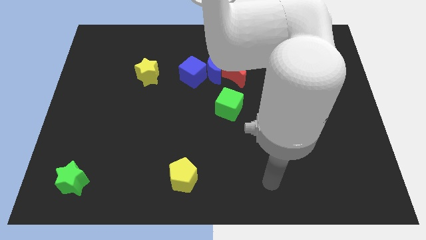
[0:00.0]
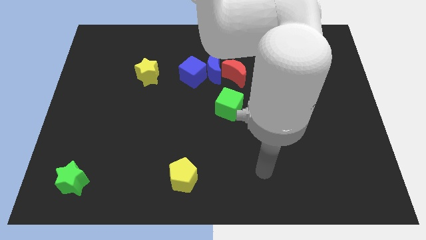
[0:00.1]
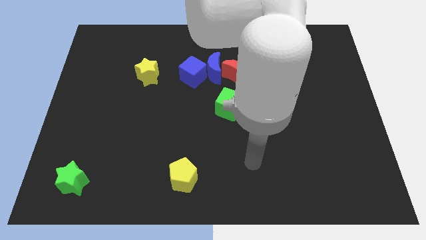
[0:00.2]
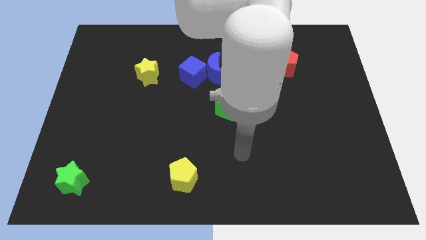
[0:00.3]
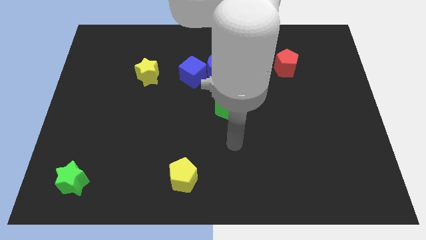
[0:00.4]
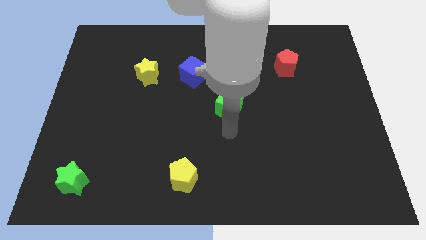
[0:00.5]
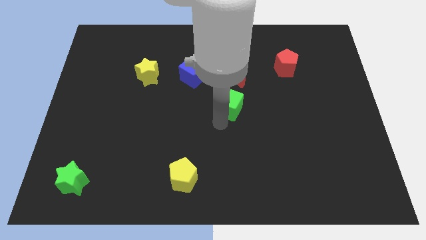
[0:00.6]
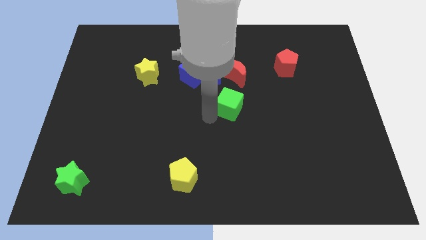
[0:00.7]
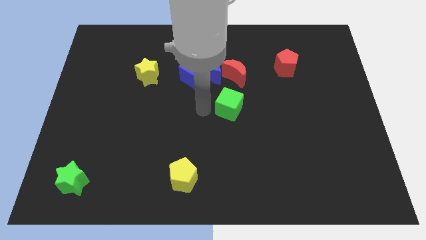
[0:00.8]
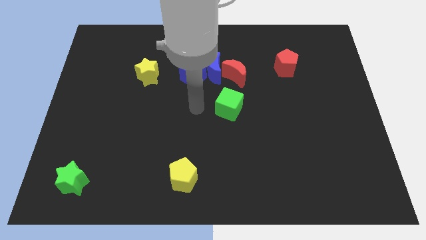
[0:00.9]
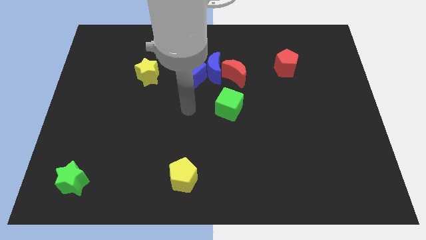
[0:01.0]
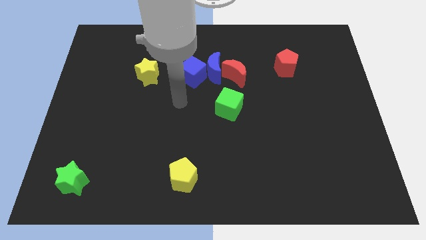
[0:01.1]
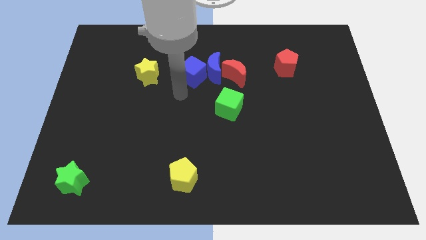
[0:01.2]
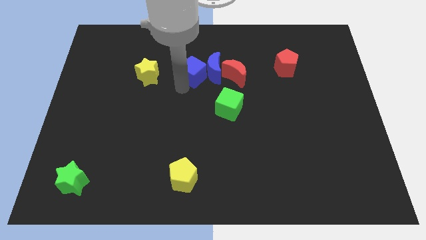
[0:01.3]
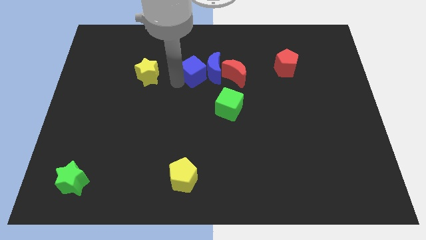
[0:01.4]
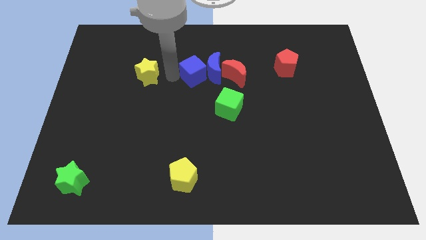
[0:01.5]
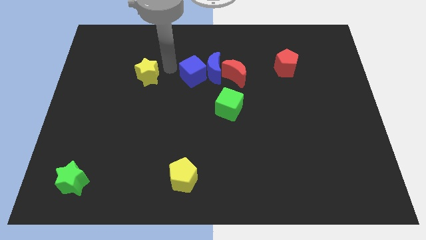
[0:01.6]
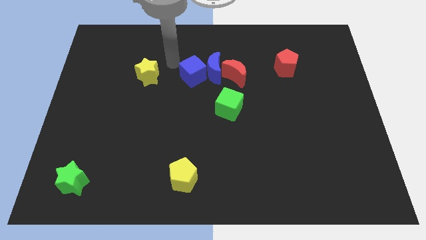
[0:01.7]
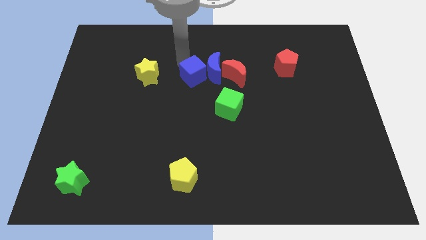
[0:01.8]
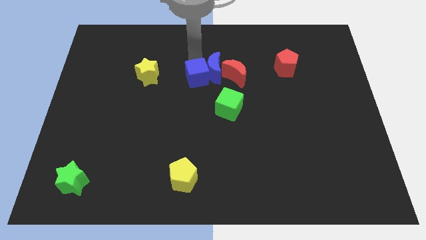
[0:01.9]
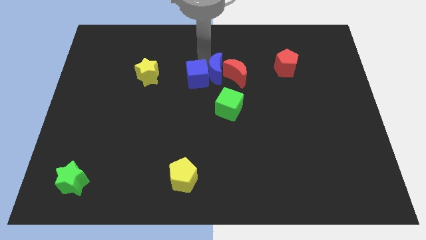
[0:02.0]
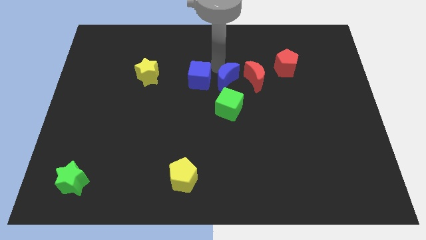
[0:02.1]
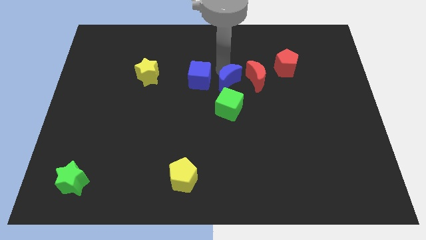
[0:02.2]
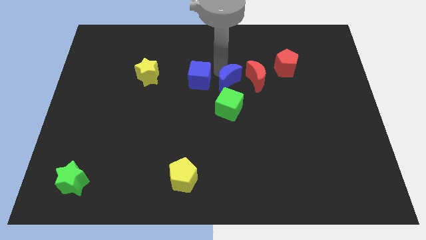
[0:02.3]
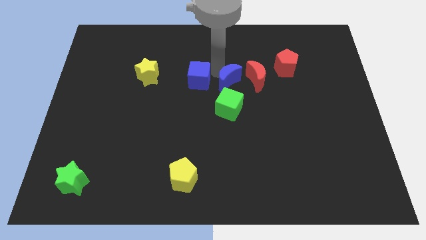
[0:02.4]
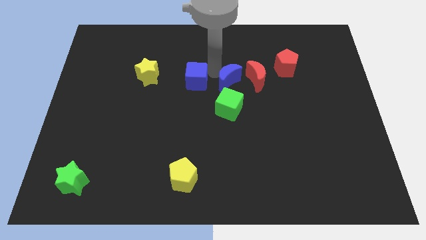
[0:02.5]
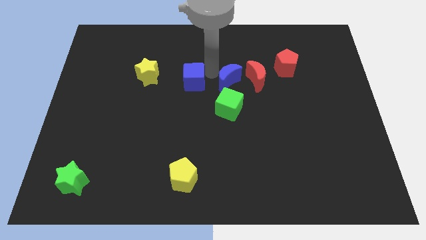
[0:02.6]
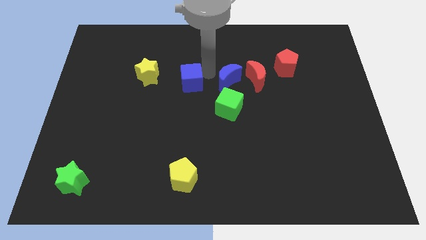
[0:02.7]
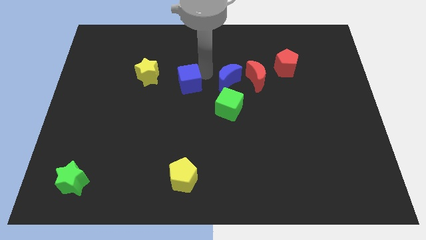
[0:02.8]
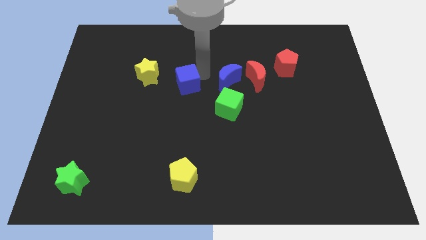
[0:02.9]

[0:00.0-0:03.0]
separate the blue cube from the blue moon

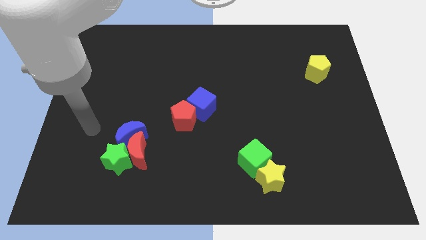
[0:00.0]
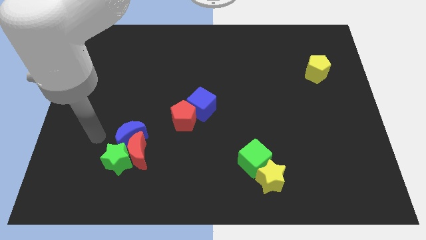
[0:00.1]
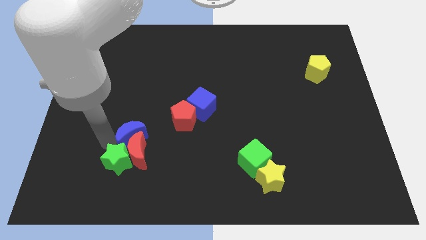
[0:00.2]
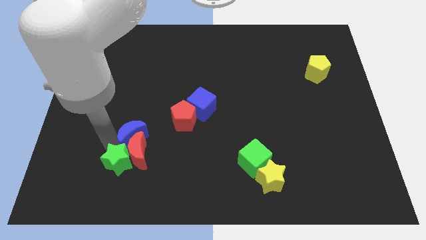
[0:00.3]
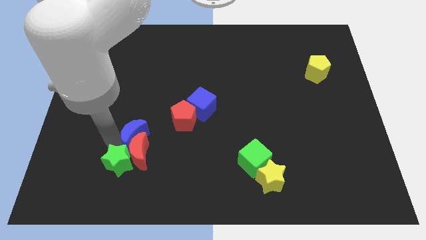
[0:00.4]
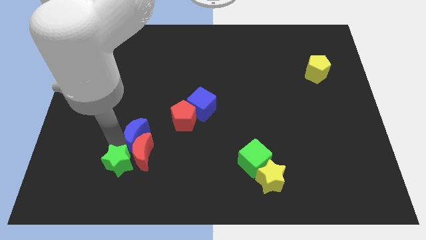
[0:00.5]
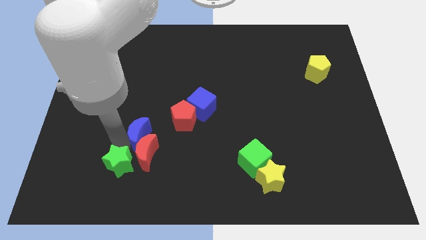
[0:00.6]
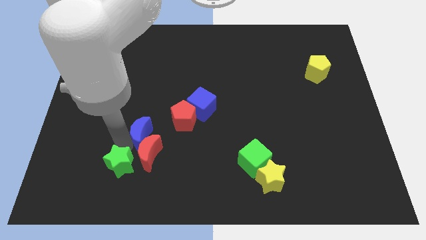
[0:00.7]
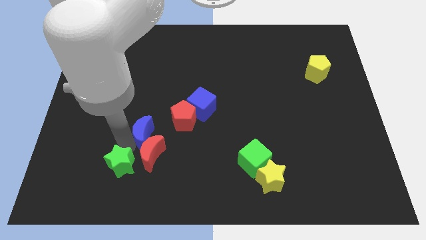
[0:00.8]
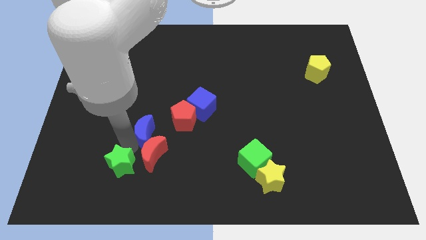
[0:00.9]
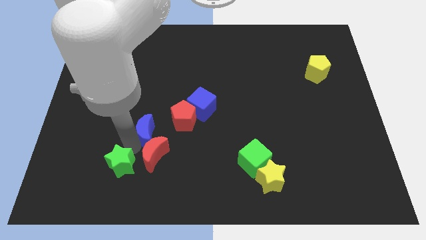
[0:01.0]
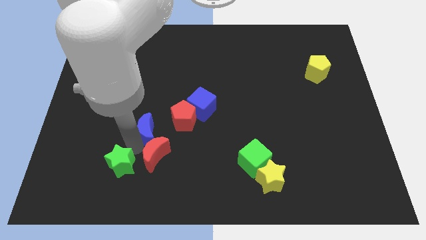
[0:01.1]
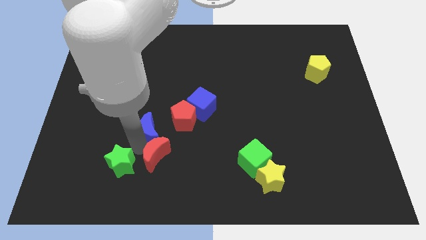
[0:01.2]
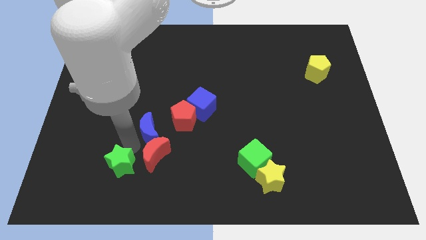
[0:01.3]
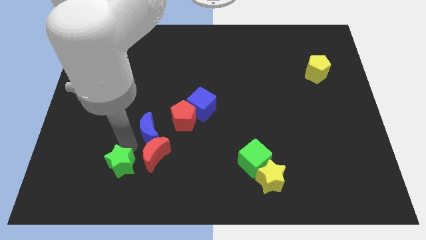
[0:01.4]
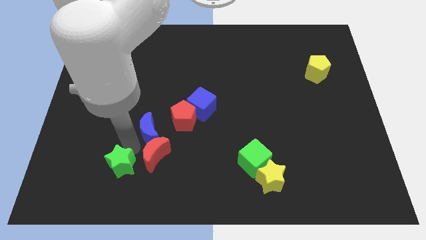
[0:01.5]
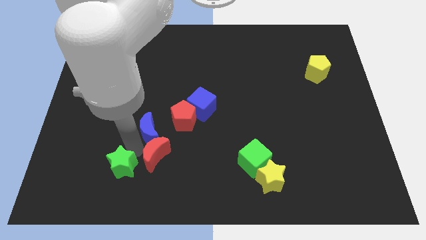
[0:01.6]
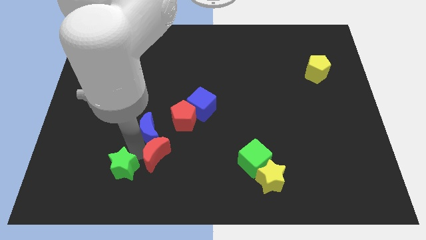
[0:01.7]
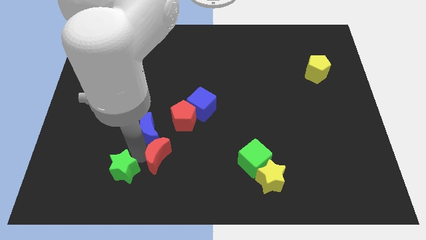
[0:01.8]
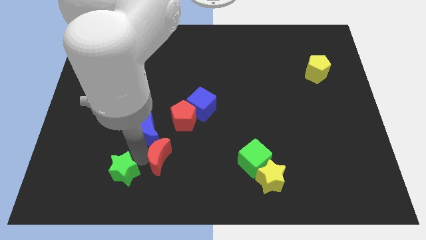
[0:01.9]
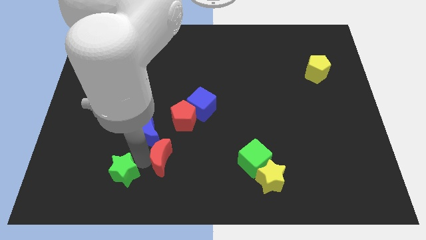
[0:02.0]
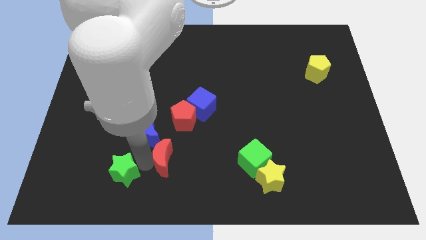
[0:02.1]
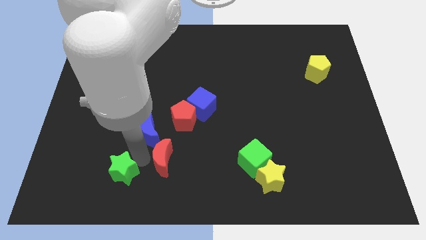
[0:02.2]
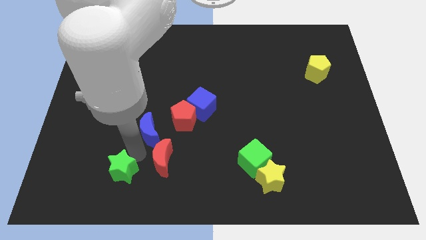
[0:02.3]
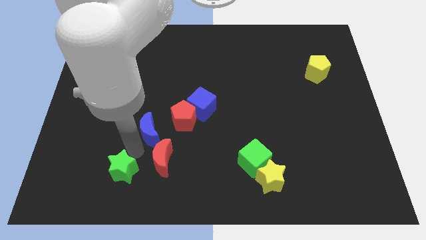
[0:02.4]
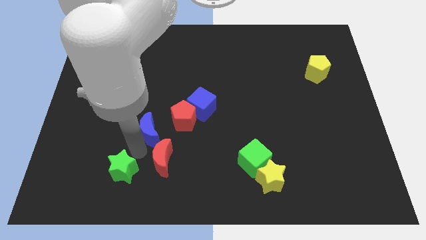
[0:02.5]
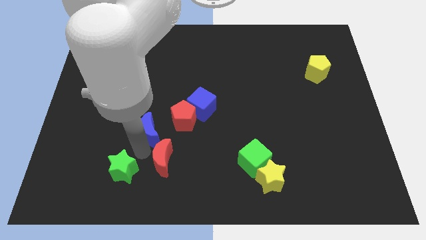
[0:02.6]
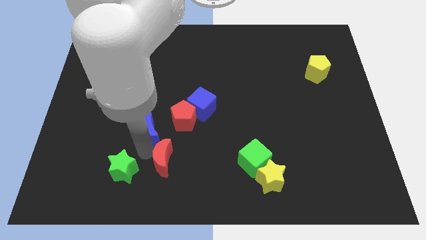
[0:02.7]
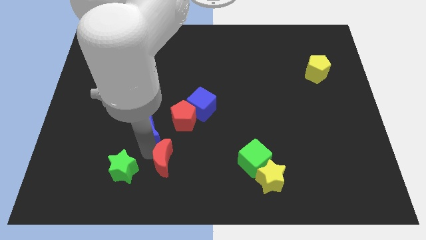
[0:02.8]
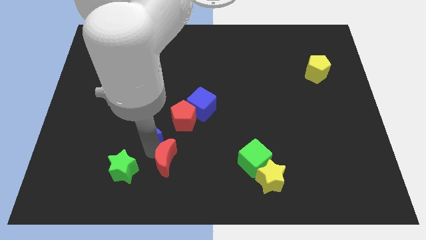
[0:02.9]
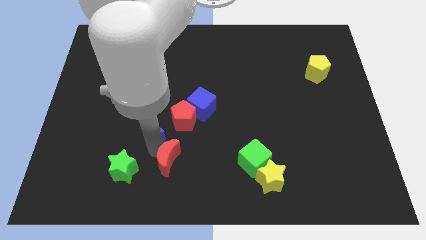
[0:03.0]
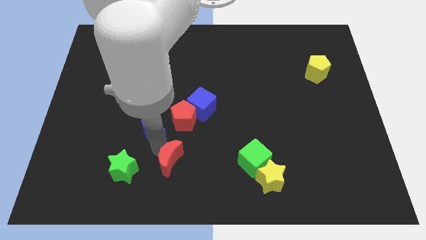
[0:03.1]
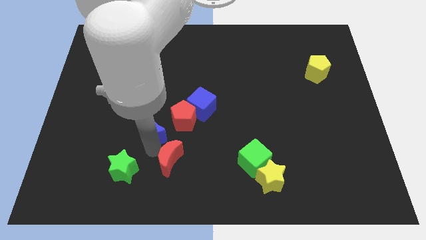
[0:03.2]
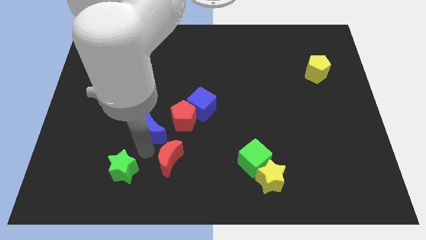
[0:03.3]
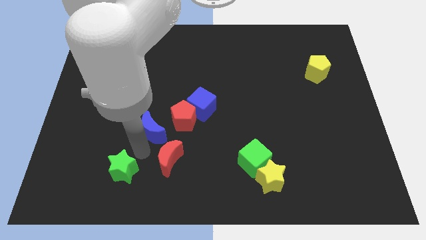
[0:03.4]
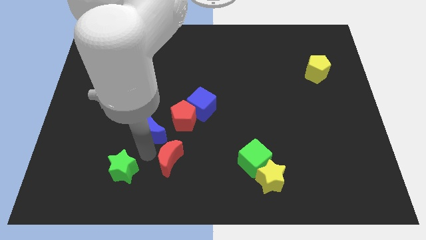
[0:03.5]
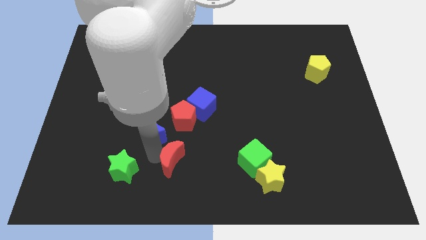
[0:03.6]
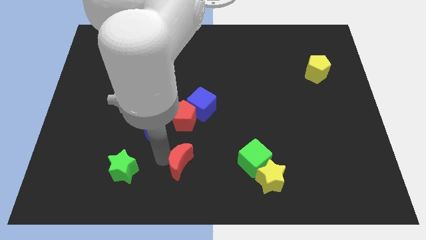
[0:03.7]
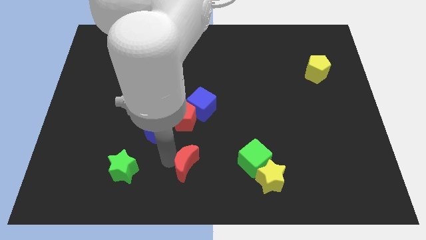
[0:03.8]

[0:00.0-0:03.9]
pull the red moon apart from the green star and blue moon

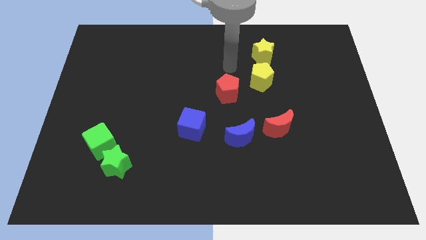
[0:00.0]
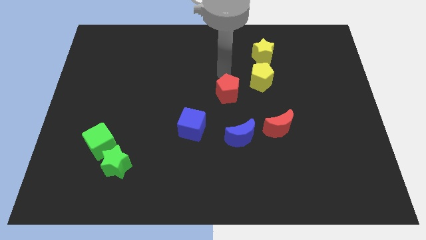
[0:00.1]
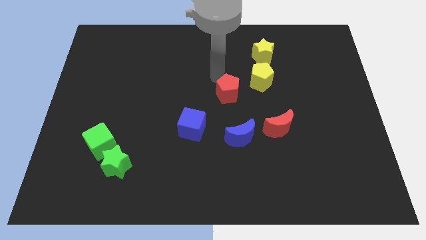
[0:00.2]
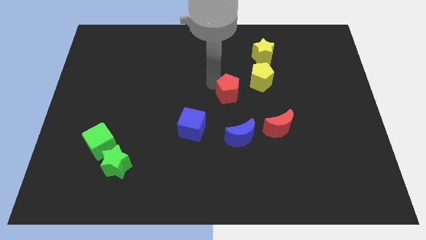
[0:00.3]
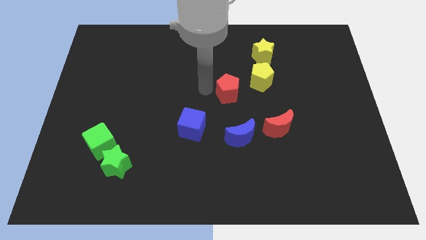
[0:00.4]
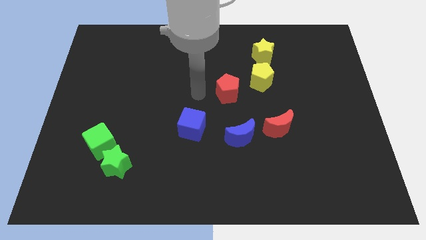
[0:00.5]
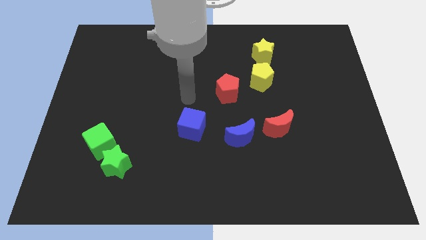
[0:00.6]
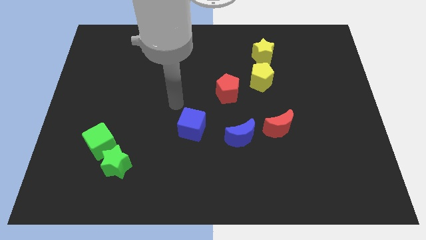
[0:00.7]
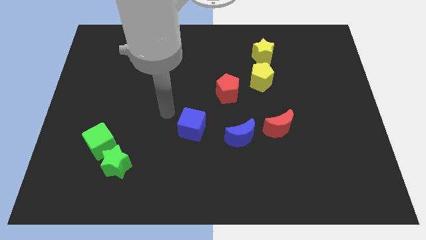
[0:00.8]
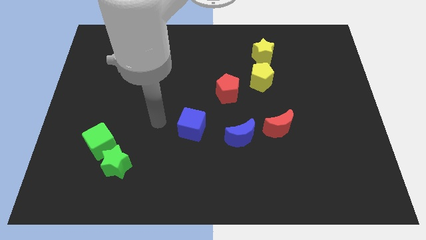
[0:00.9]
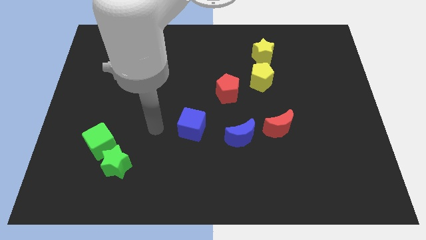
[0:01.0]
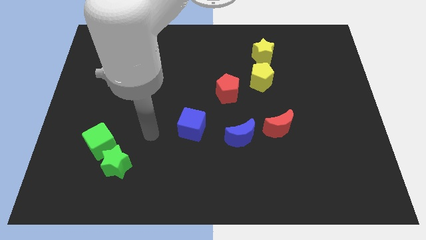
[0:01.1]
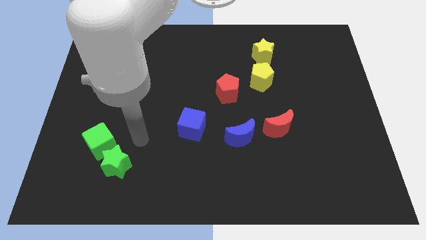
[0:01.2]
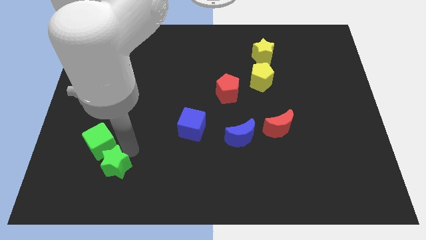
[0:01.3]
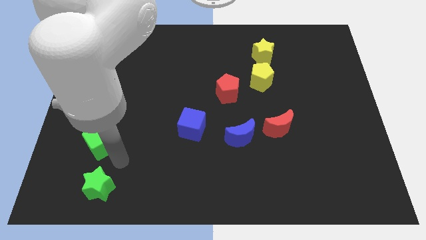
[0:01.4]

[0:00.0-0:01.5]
separate the green cube from the green star

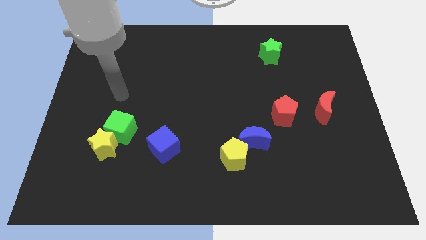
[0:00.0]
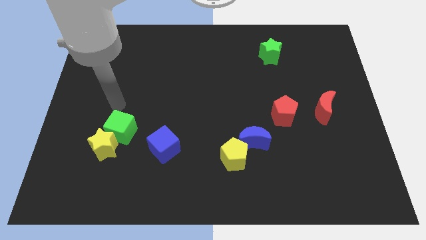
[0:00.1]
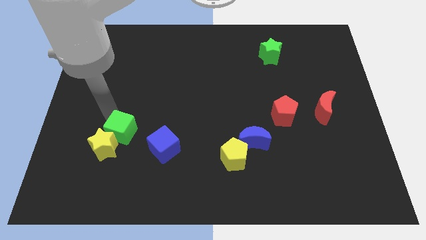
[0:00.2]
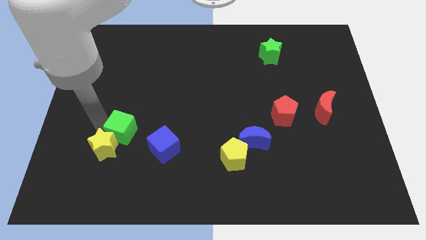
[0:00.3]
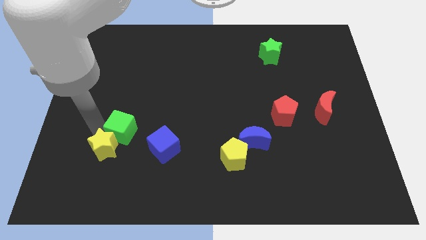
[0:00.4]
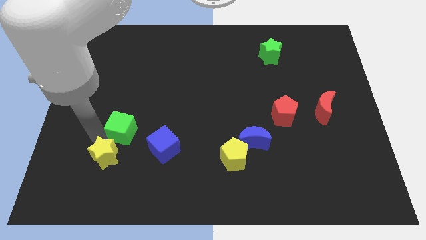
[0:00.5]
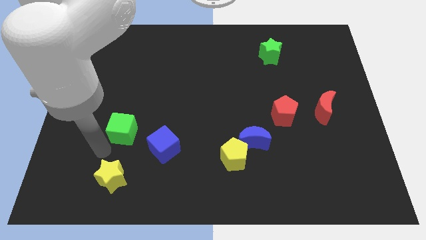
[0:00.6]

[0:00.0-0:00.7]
move the green cube away from the yellow star

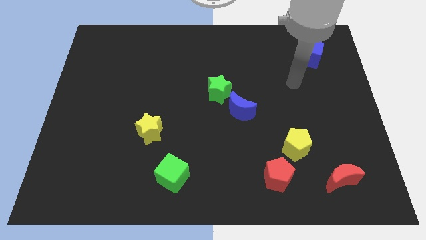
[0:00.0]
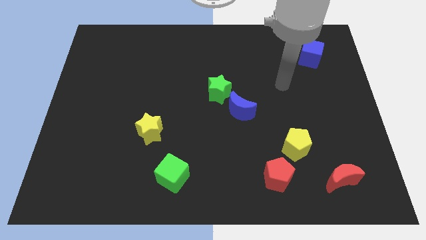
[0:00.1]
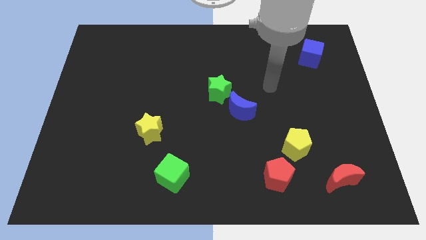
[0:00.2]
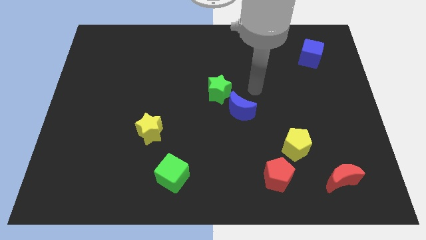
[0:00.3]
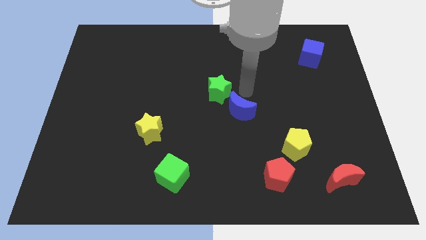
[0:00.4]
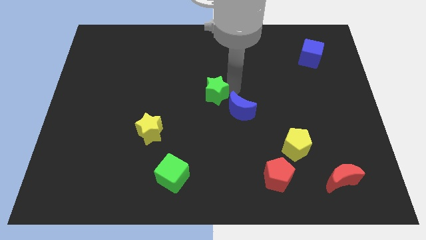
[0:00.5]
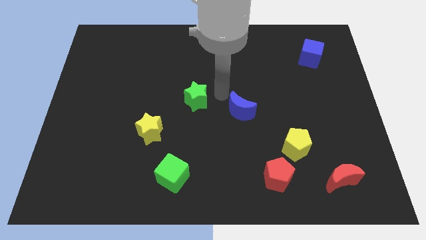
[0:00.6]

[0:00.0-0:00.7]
move the blue moon away from the green star
